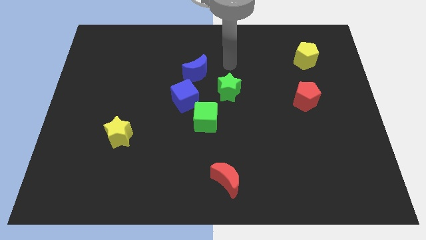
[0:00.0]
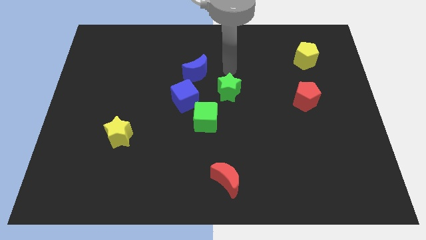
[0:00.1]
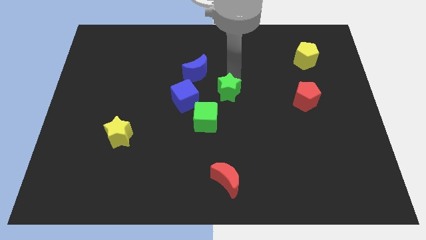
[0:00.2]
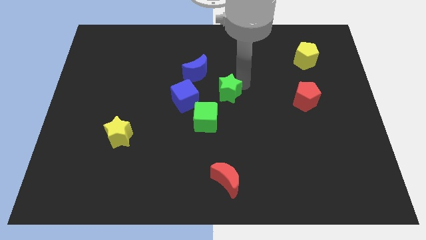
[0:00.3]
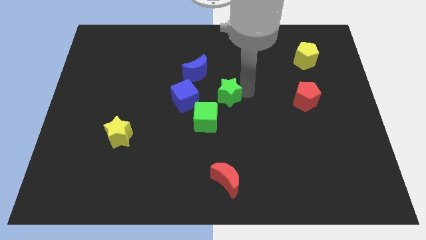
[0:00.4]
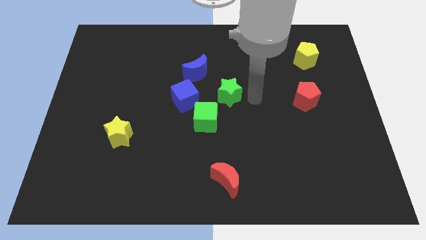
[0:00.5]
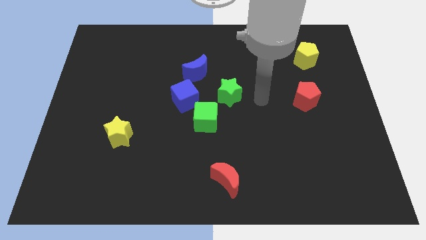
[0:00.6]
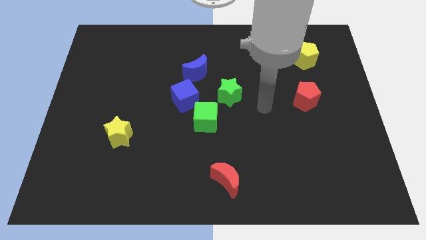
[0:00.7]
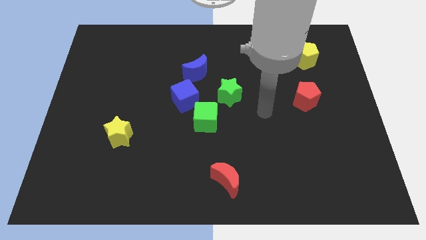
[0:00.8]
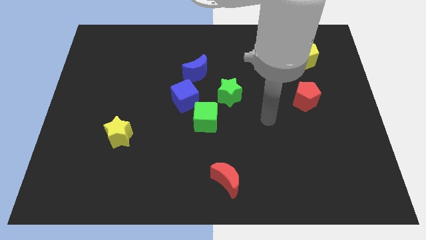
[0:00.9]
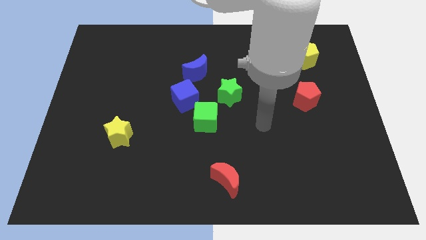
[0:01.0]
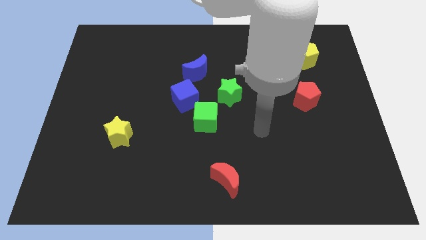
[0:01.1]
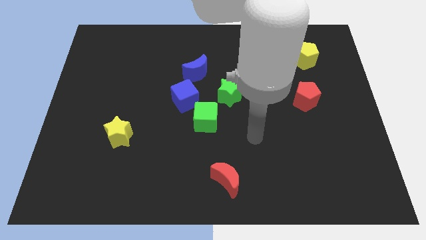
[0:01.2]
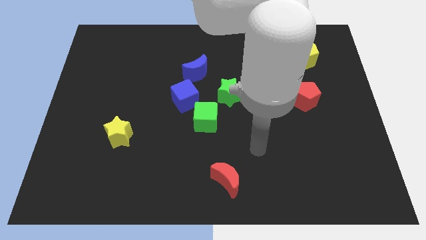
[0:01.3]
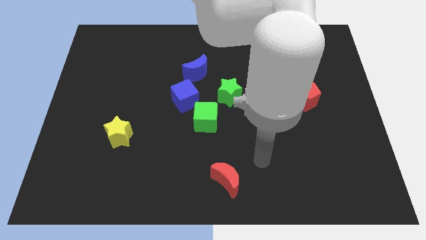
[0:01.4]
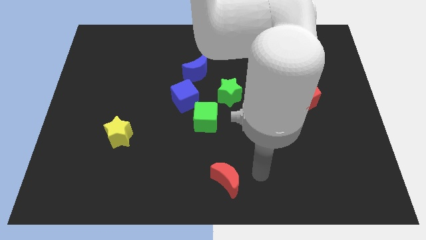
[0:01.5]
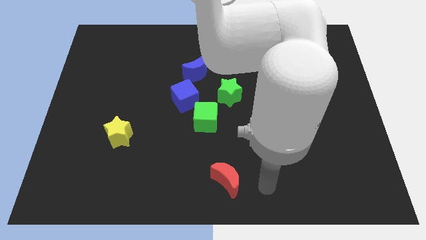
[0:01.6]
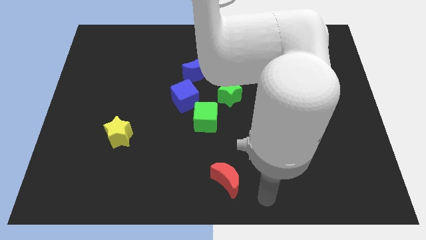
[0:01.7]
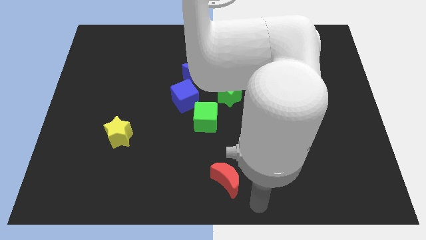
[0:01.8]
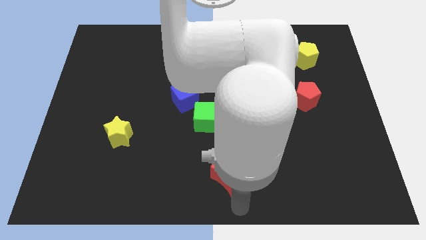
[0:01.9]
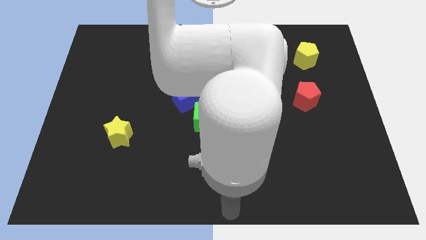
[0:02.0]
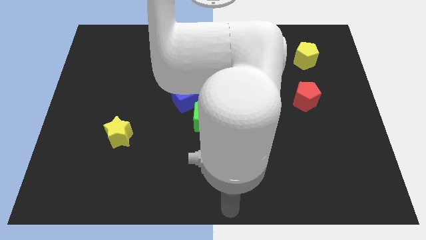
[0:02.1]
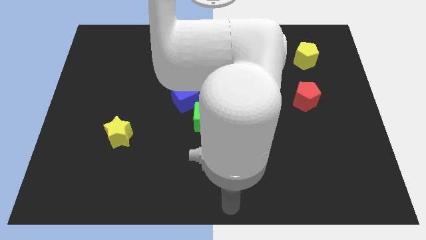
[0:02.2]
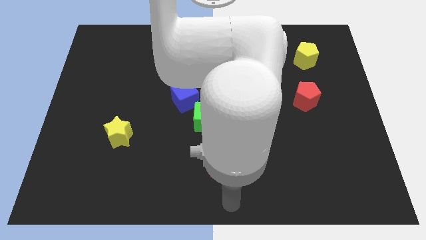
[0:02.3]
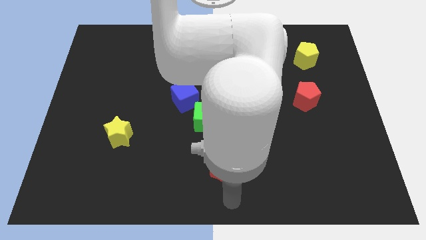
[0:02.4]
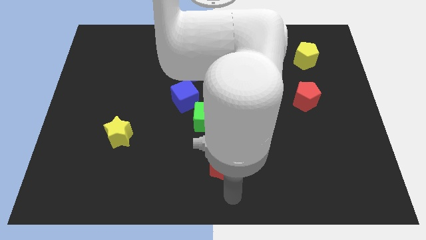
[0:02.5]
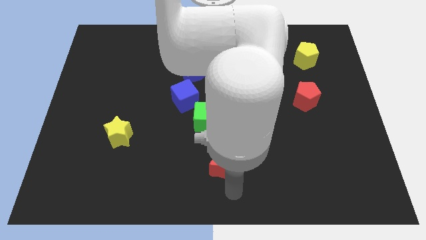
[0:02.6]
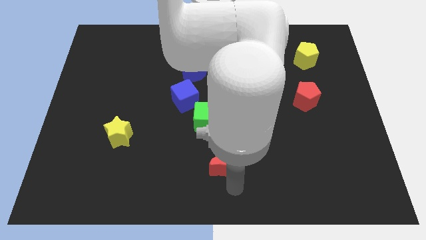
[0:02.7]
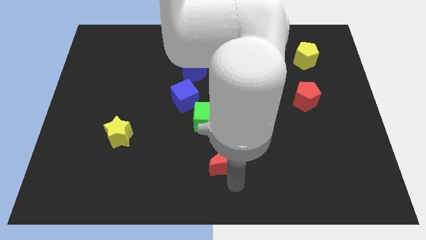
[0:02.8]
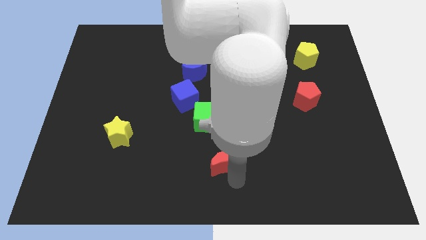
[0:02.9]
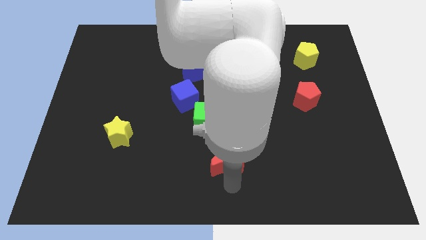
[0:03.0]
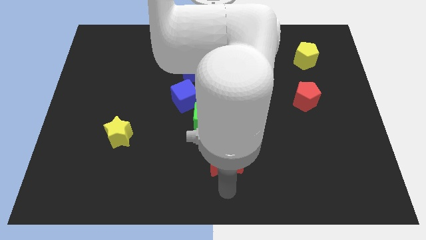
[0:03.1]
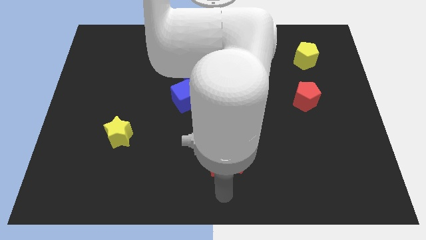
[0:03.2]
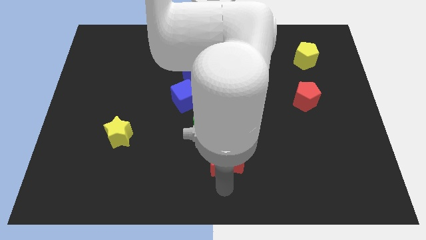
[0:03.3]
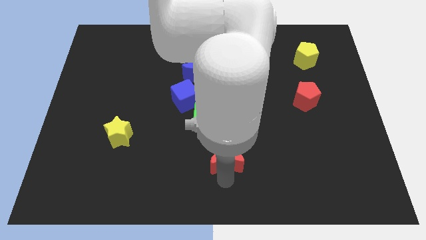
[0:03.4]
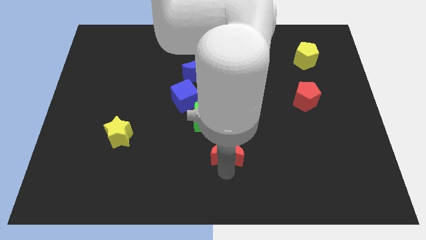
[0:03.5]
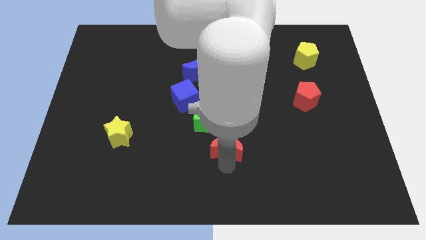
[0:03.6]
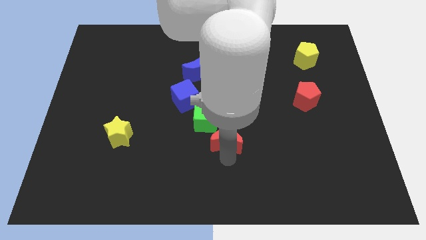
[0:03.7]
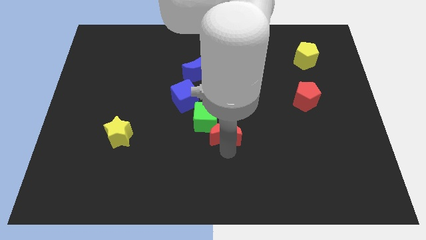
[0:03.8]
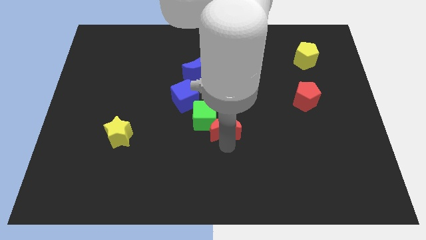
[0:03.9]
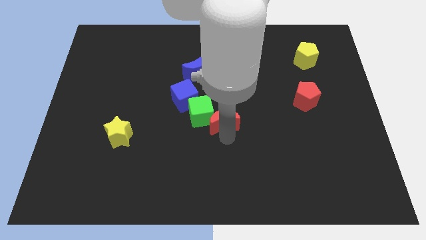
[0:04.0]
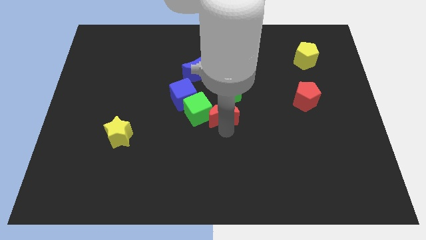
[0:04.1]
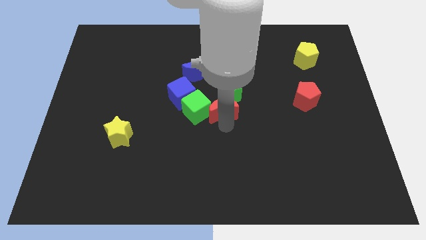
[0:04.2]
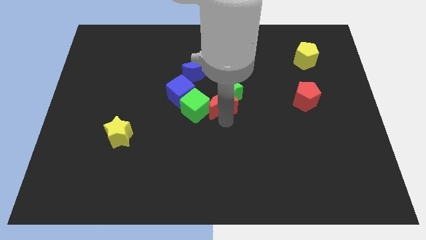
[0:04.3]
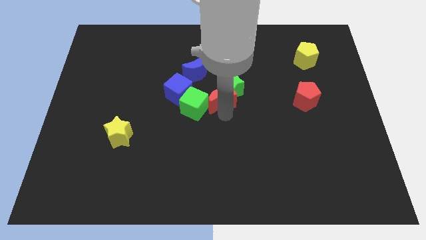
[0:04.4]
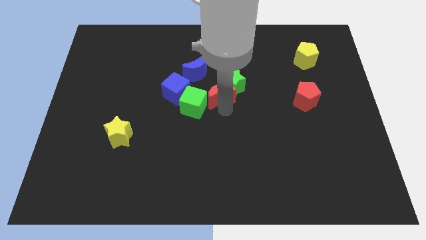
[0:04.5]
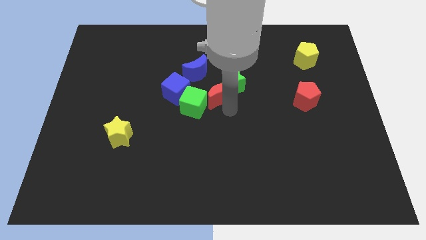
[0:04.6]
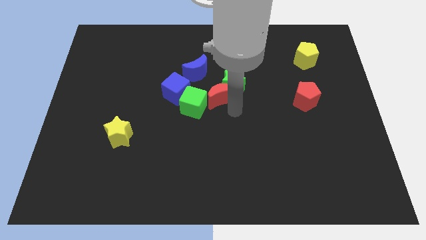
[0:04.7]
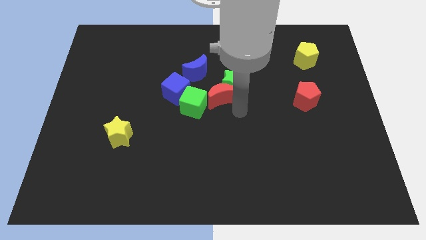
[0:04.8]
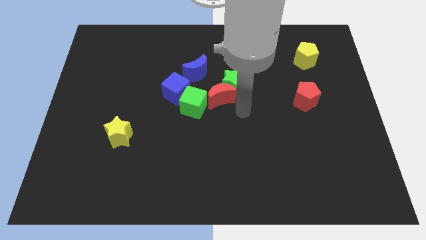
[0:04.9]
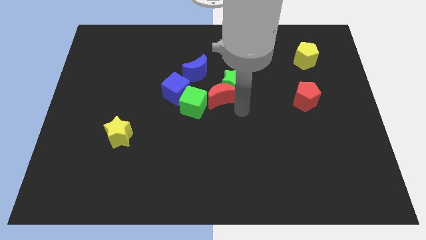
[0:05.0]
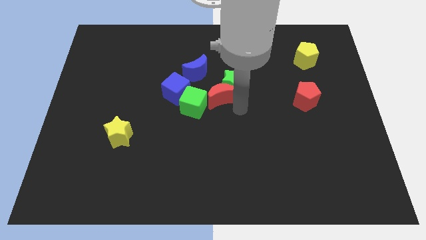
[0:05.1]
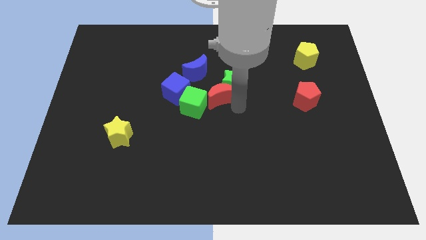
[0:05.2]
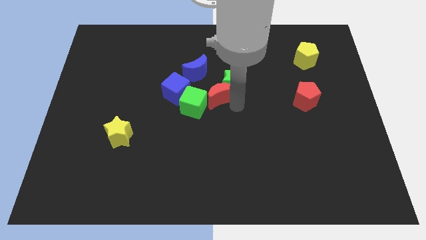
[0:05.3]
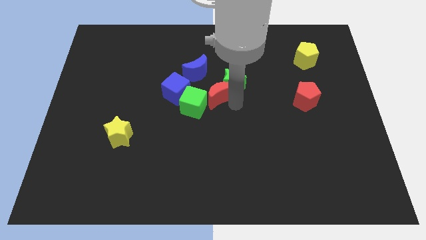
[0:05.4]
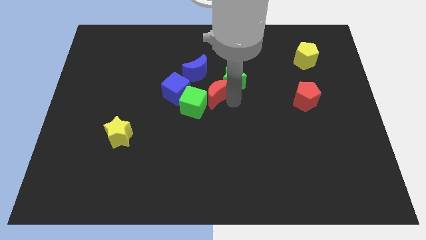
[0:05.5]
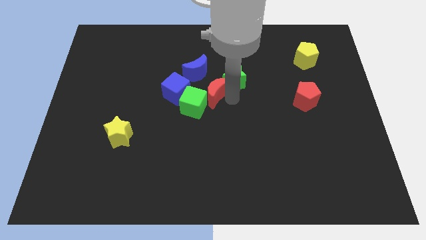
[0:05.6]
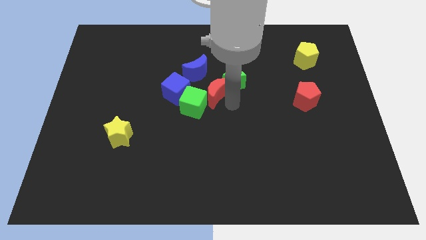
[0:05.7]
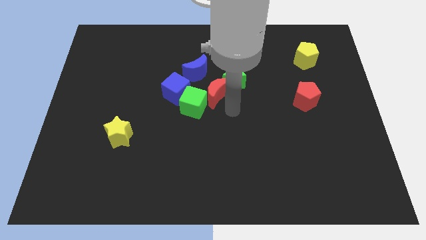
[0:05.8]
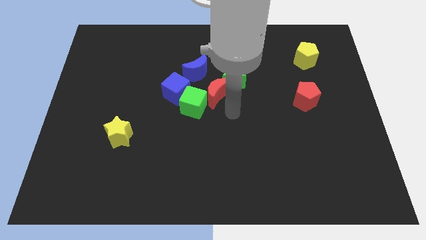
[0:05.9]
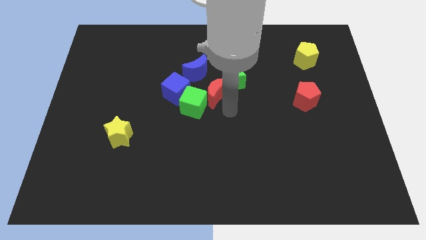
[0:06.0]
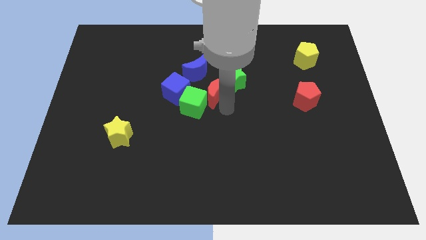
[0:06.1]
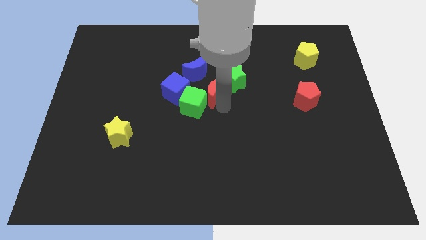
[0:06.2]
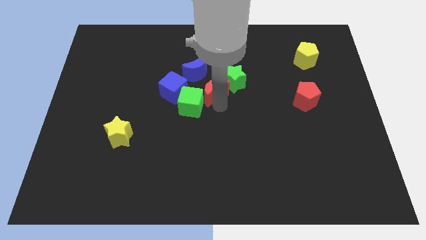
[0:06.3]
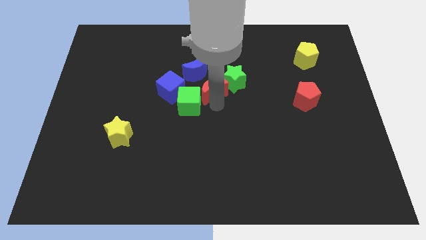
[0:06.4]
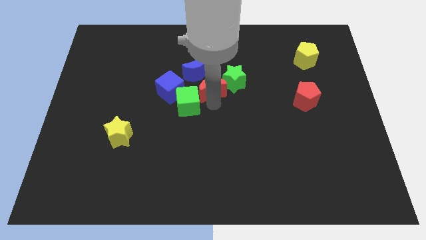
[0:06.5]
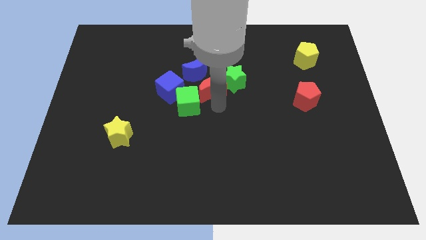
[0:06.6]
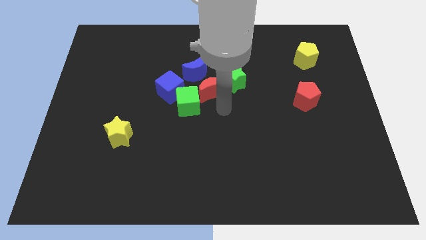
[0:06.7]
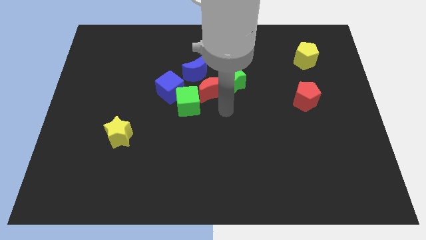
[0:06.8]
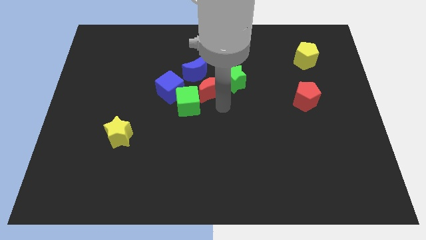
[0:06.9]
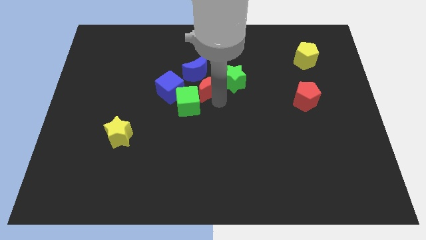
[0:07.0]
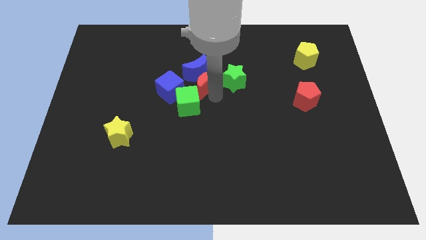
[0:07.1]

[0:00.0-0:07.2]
move the red moon to the blue moon

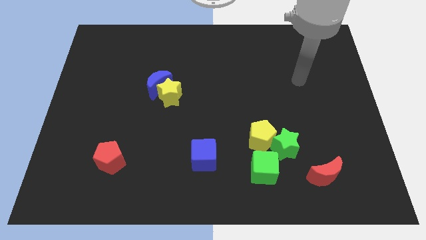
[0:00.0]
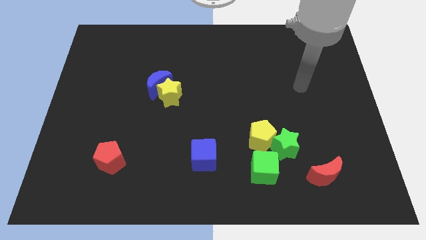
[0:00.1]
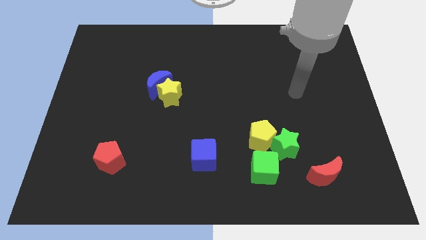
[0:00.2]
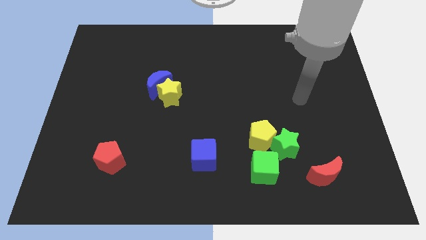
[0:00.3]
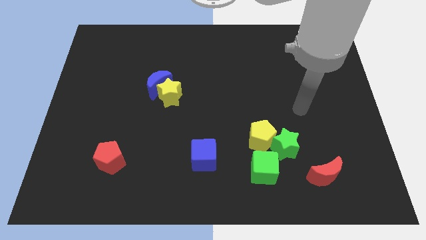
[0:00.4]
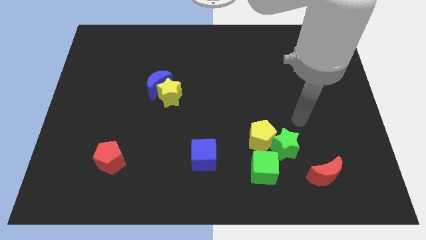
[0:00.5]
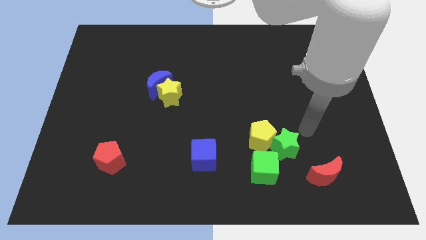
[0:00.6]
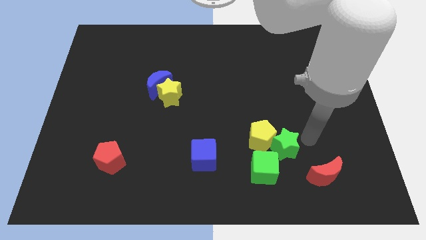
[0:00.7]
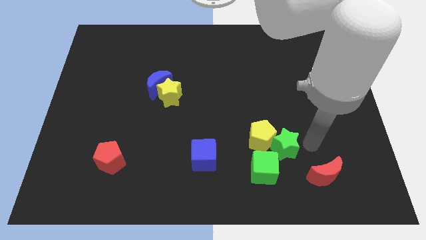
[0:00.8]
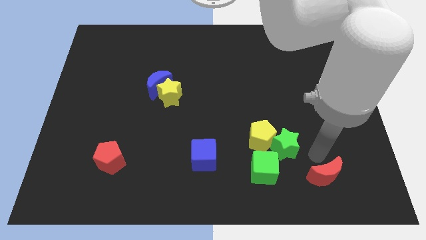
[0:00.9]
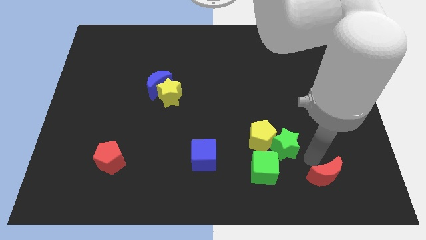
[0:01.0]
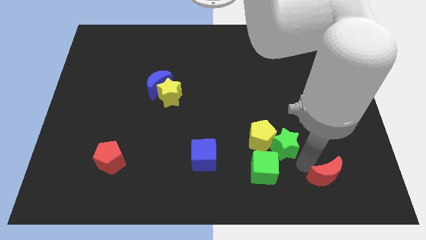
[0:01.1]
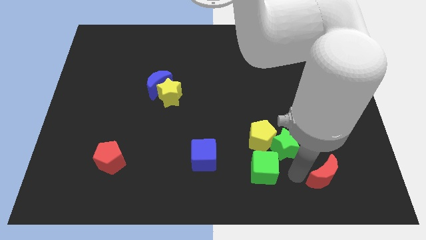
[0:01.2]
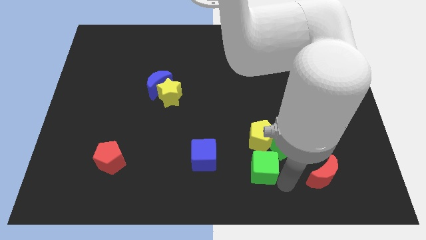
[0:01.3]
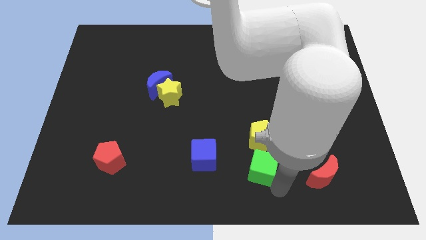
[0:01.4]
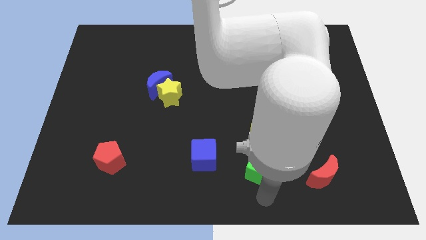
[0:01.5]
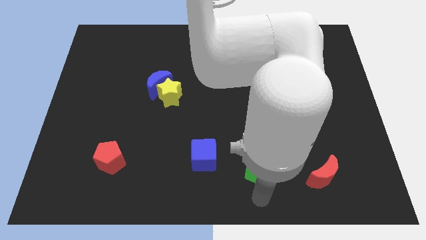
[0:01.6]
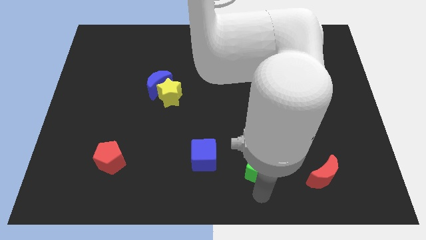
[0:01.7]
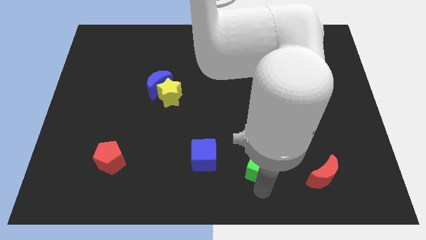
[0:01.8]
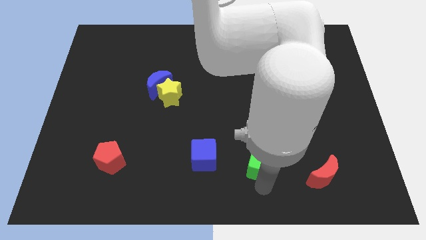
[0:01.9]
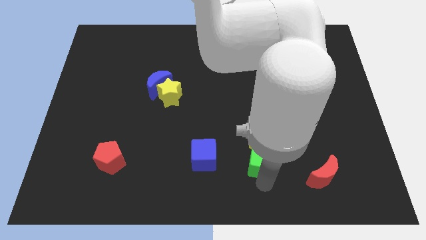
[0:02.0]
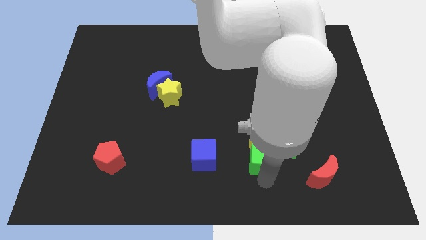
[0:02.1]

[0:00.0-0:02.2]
move the green cube towards the yellow pentagon
